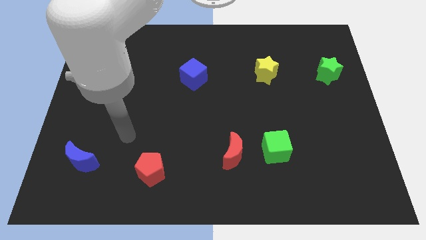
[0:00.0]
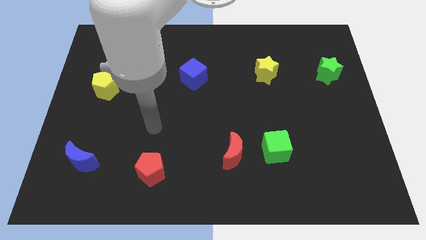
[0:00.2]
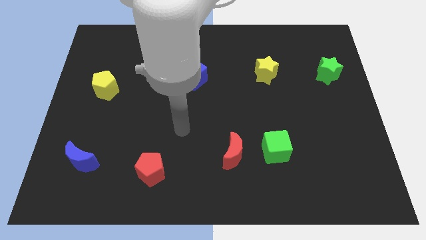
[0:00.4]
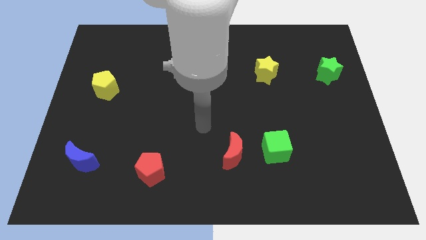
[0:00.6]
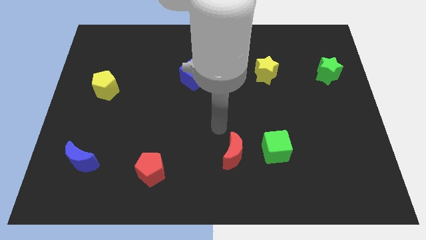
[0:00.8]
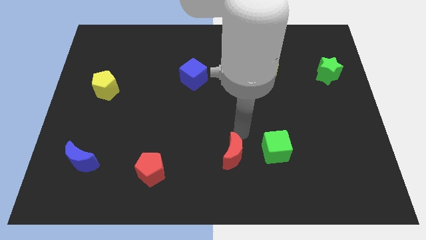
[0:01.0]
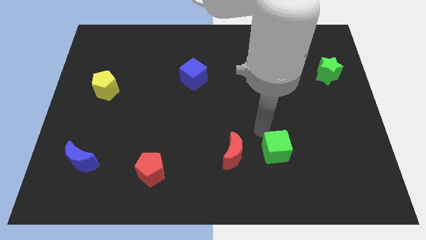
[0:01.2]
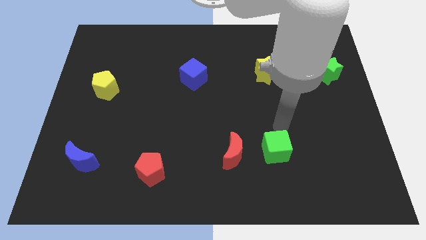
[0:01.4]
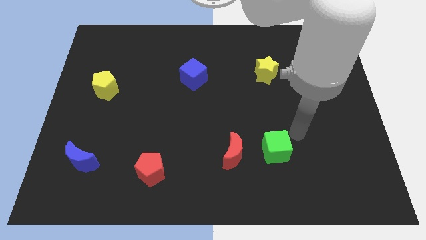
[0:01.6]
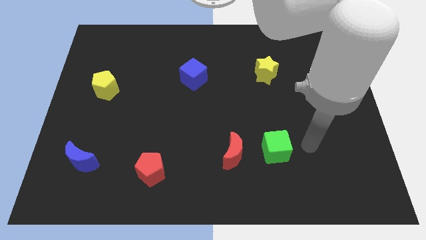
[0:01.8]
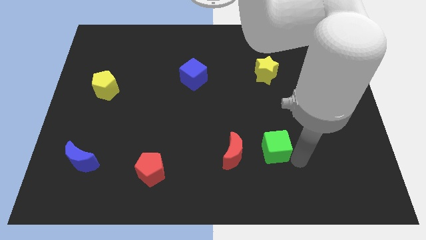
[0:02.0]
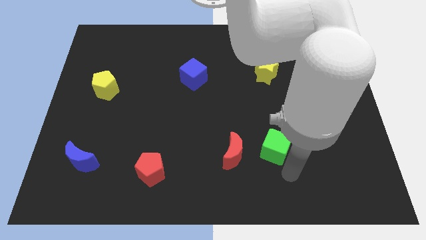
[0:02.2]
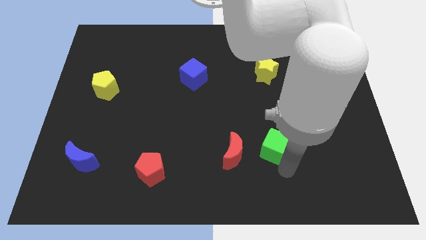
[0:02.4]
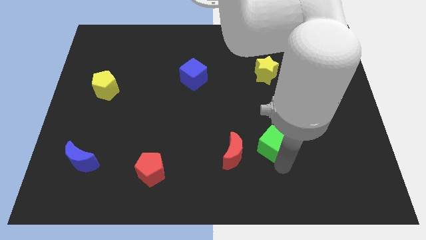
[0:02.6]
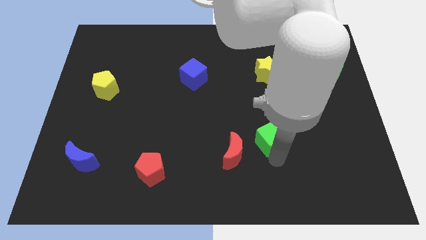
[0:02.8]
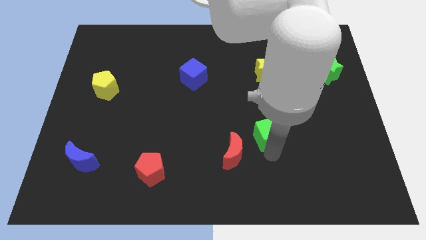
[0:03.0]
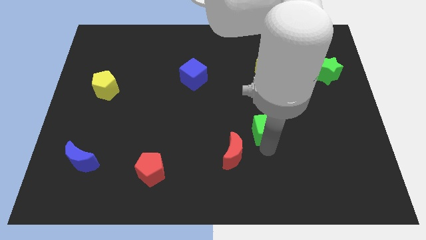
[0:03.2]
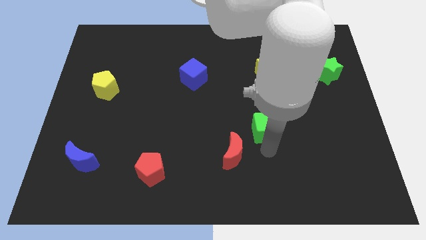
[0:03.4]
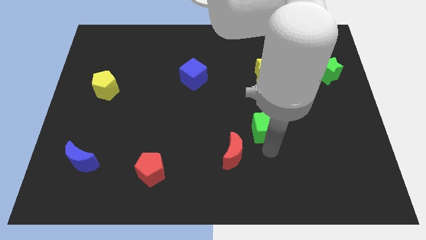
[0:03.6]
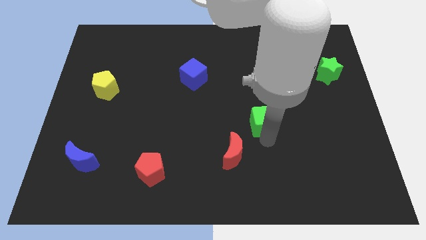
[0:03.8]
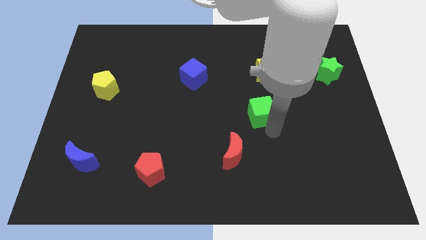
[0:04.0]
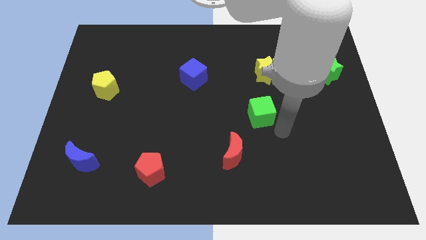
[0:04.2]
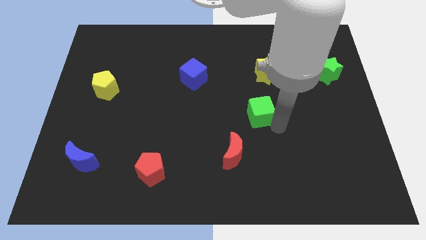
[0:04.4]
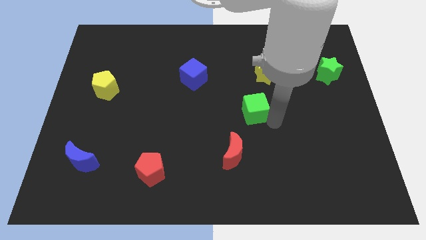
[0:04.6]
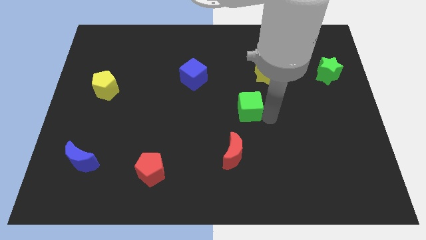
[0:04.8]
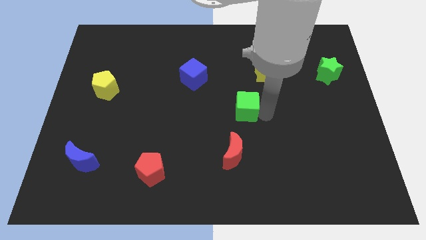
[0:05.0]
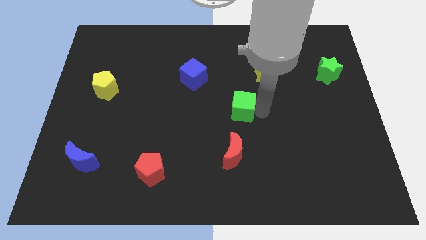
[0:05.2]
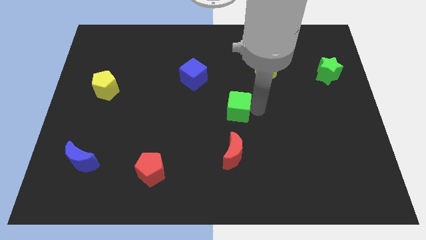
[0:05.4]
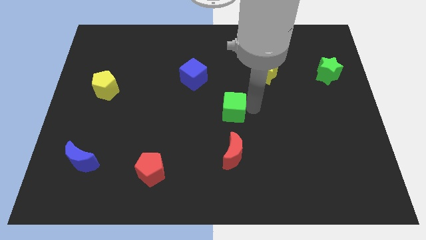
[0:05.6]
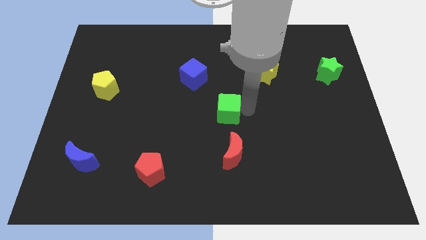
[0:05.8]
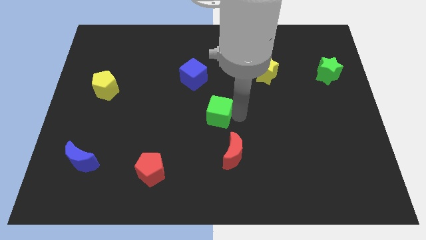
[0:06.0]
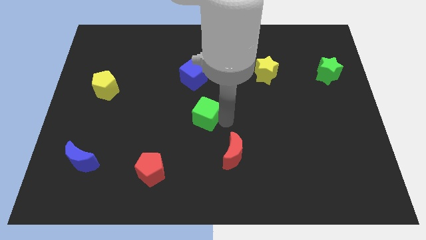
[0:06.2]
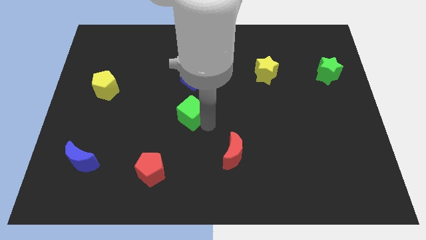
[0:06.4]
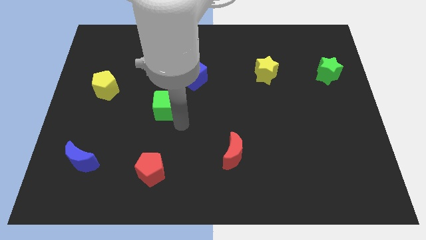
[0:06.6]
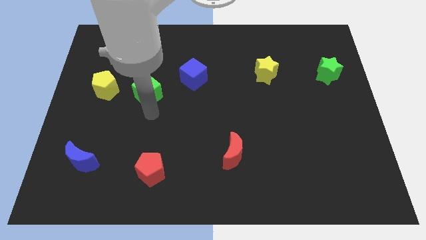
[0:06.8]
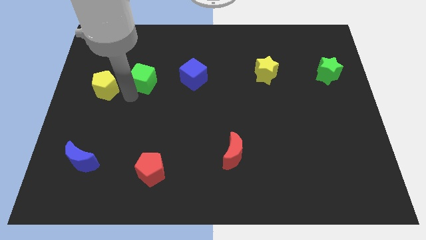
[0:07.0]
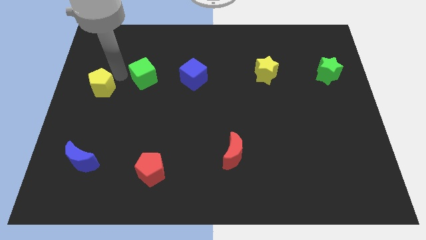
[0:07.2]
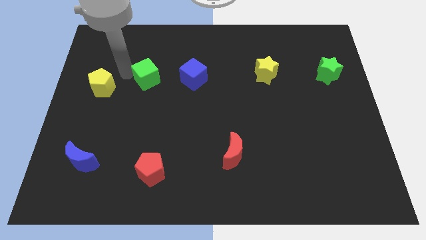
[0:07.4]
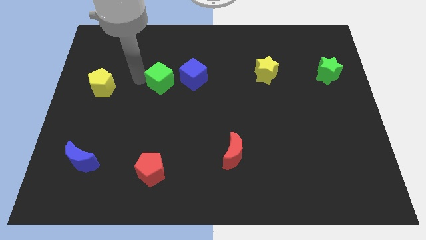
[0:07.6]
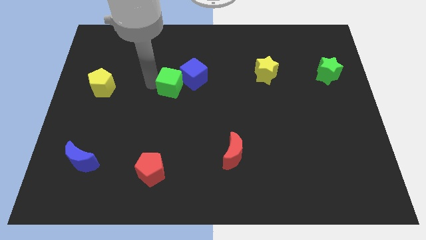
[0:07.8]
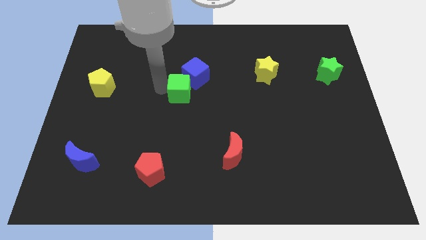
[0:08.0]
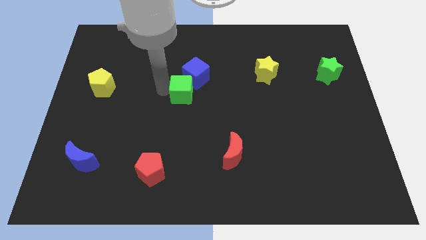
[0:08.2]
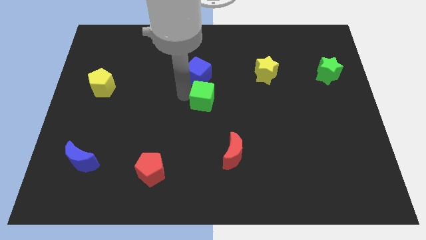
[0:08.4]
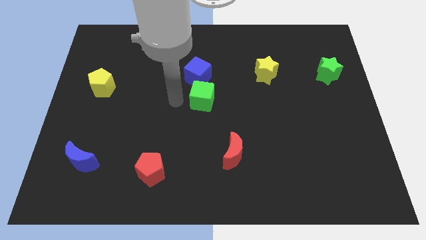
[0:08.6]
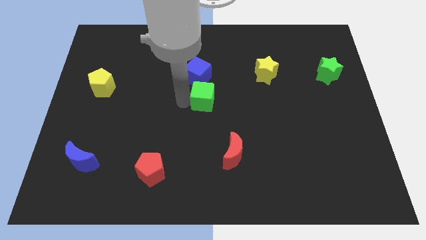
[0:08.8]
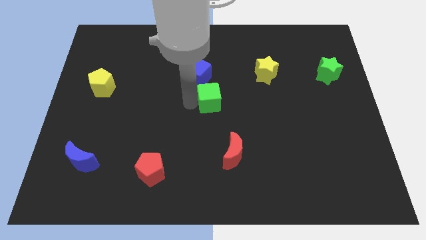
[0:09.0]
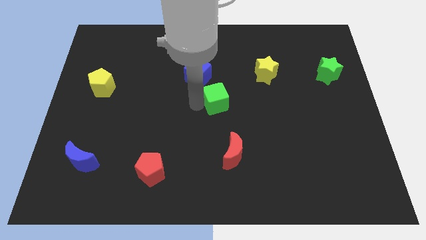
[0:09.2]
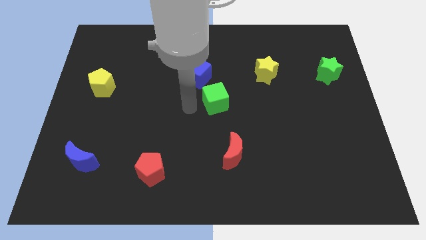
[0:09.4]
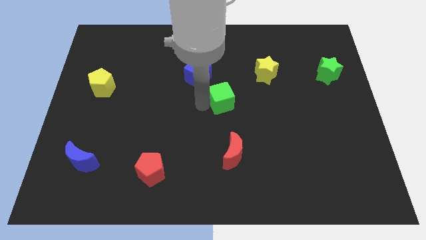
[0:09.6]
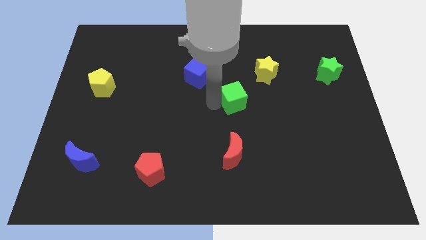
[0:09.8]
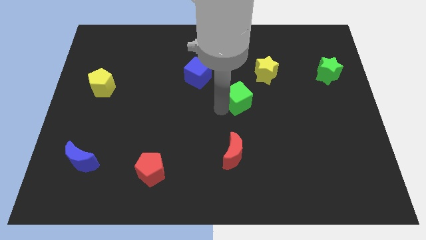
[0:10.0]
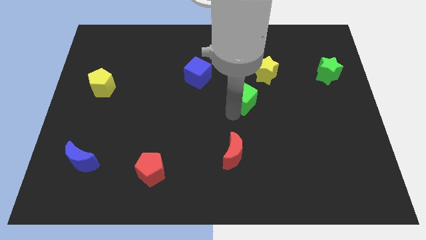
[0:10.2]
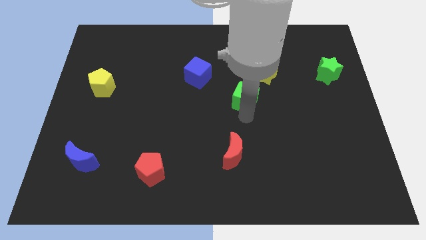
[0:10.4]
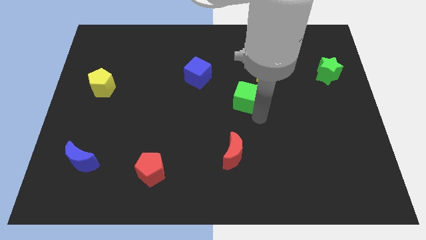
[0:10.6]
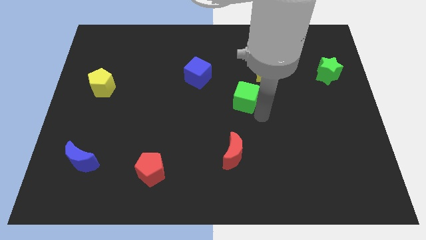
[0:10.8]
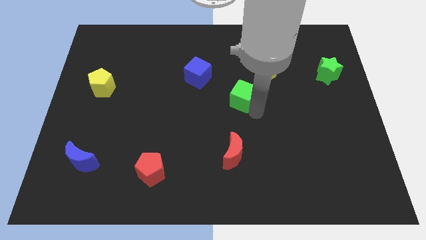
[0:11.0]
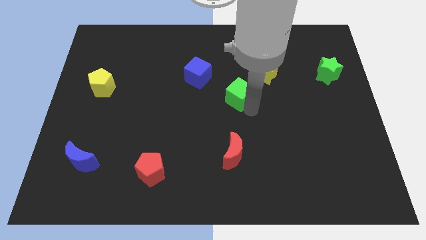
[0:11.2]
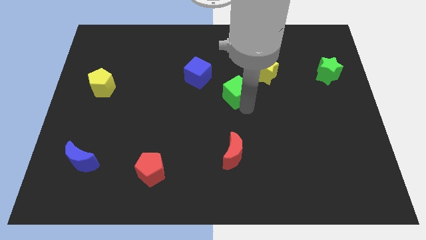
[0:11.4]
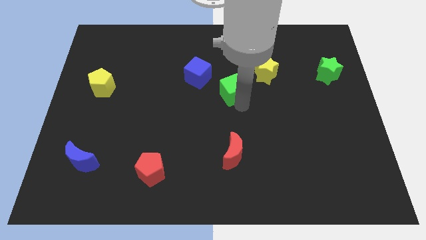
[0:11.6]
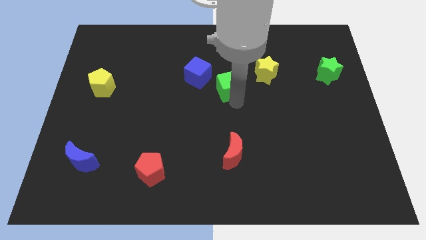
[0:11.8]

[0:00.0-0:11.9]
slide the green cube to the left of the yellow star

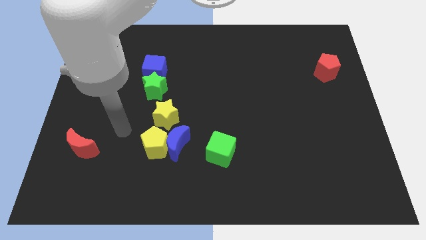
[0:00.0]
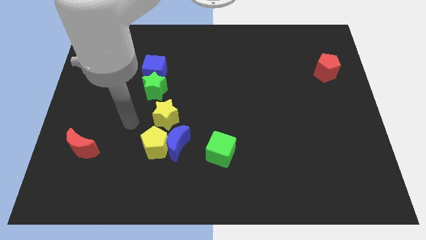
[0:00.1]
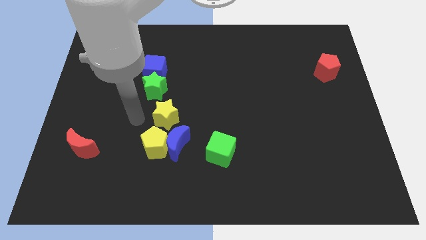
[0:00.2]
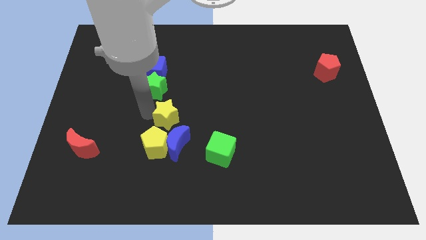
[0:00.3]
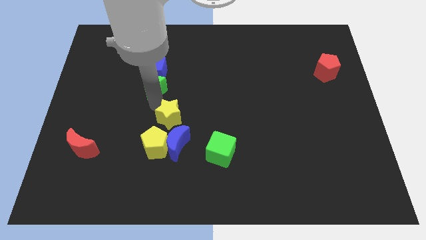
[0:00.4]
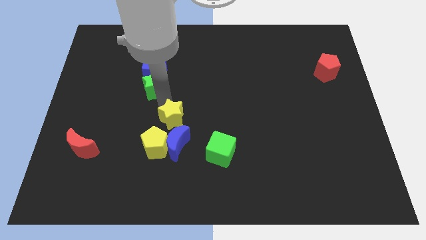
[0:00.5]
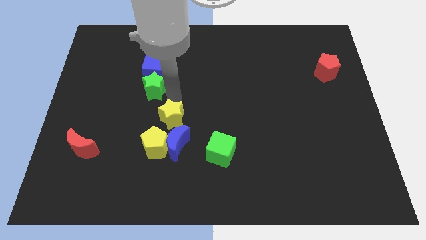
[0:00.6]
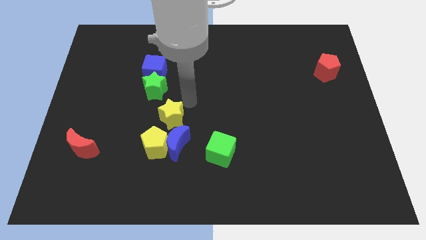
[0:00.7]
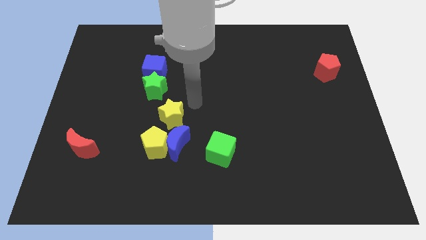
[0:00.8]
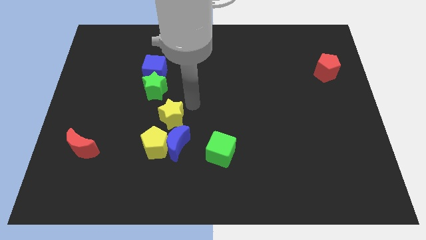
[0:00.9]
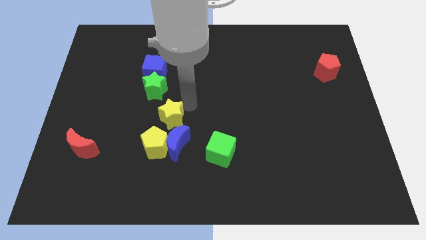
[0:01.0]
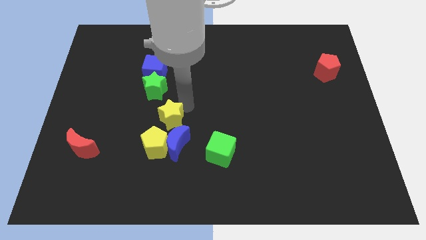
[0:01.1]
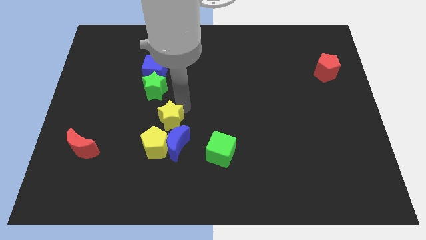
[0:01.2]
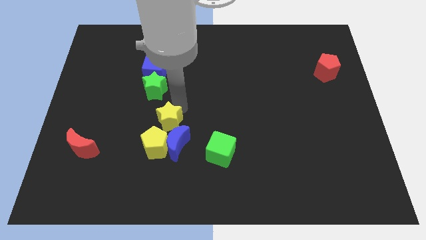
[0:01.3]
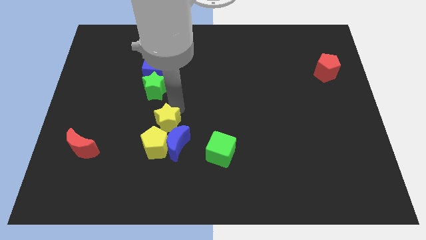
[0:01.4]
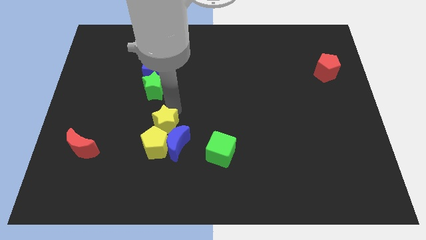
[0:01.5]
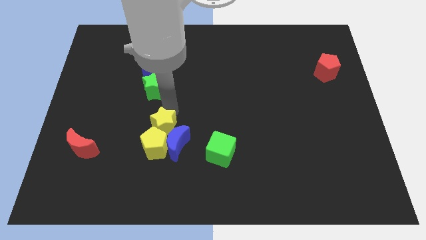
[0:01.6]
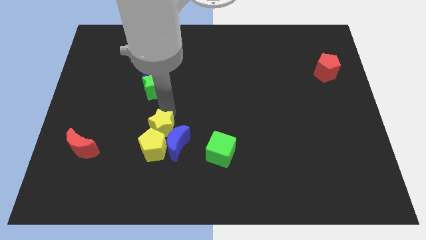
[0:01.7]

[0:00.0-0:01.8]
put the yellow star to the left of the blue moon

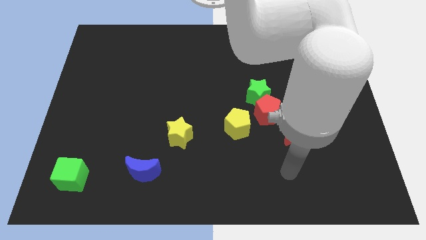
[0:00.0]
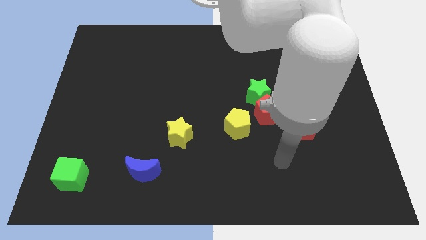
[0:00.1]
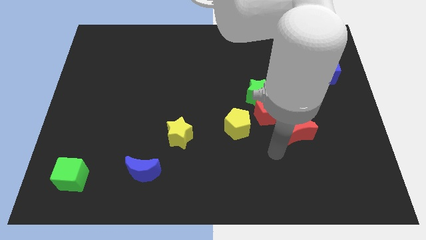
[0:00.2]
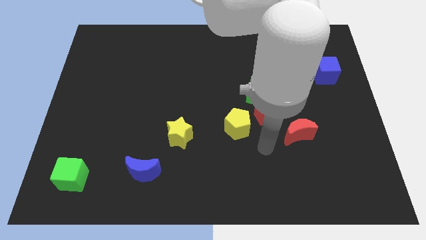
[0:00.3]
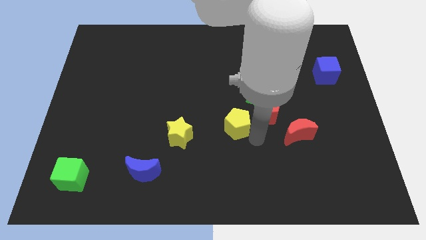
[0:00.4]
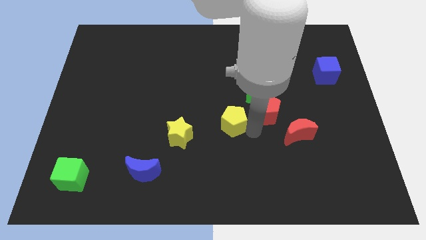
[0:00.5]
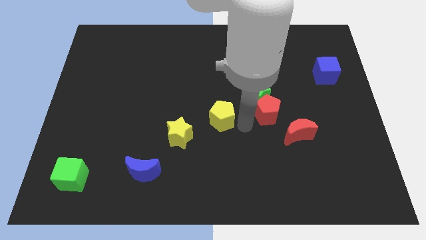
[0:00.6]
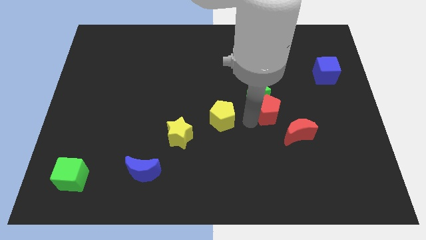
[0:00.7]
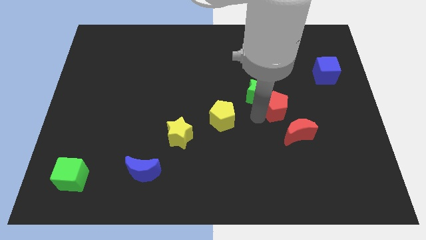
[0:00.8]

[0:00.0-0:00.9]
move the red pentagon to the top of the red moon
